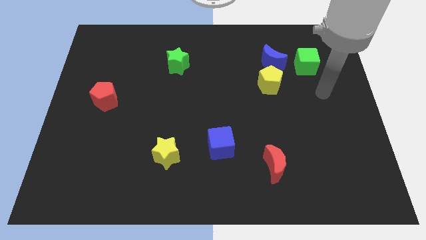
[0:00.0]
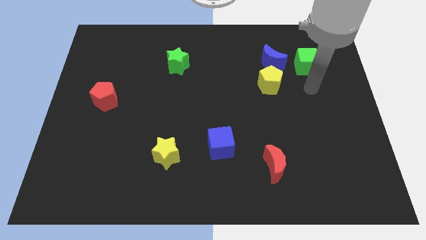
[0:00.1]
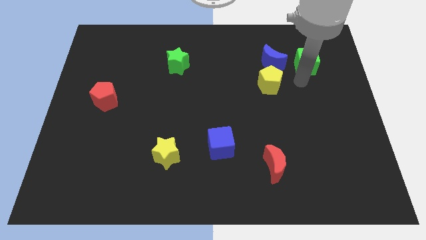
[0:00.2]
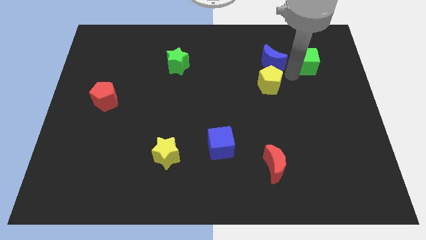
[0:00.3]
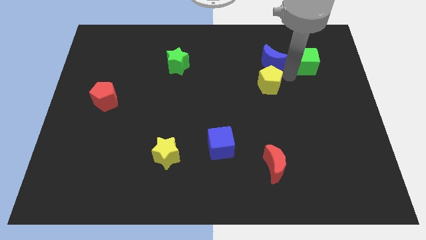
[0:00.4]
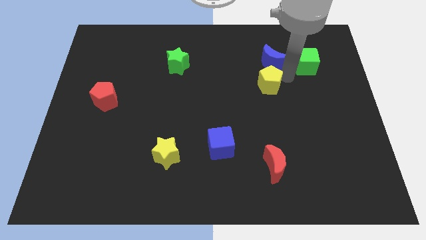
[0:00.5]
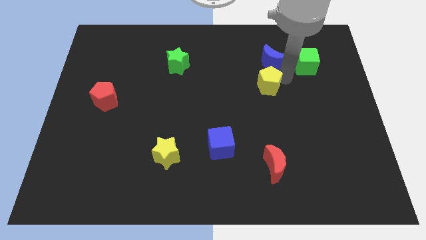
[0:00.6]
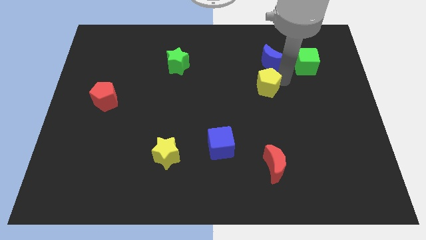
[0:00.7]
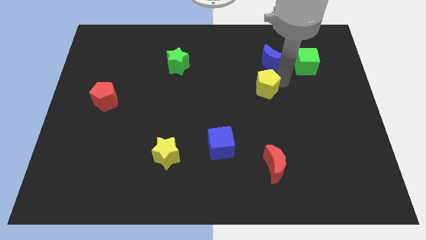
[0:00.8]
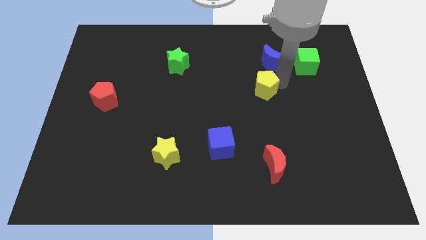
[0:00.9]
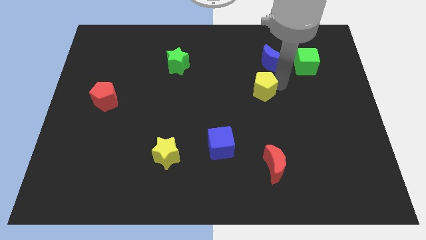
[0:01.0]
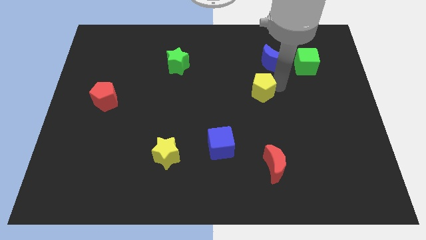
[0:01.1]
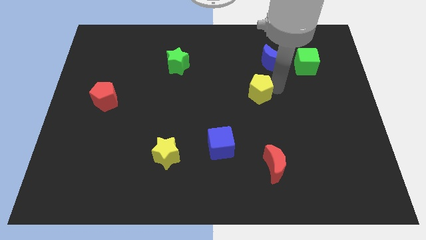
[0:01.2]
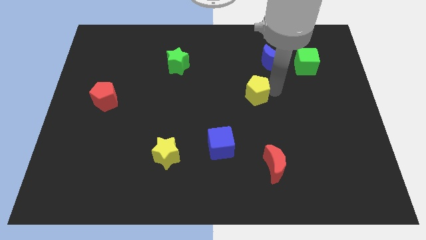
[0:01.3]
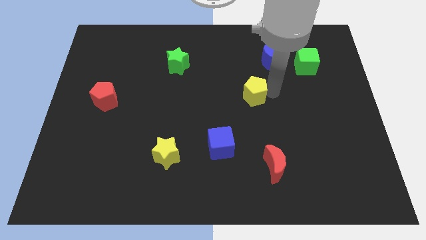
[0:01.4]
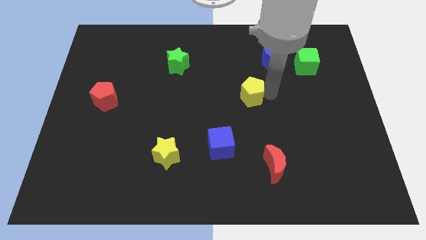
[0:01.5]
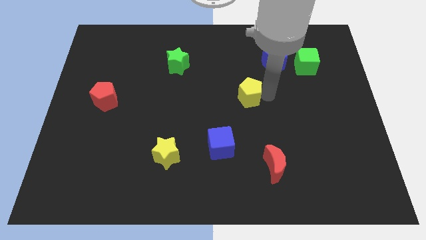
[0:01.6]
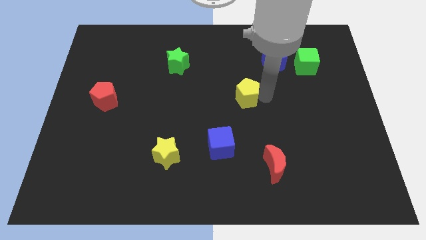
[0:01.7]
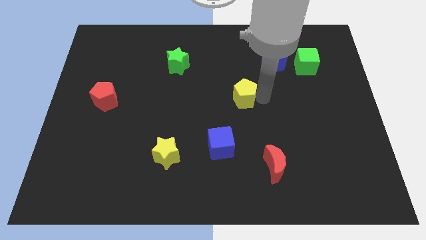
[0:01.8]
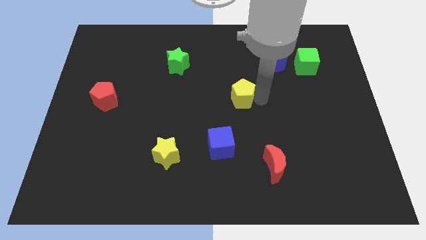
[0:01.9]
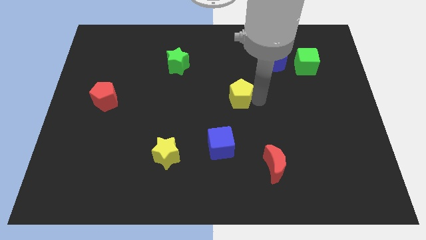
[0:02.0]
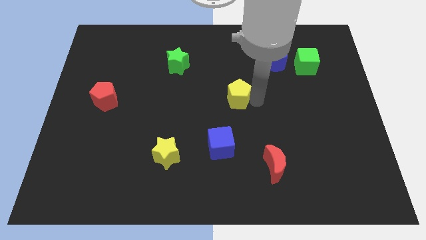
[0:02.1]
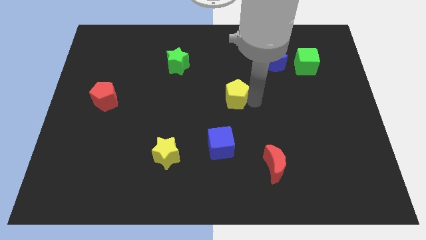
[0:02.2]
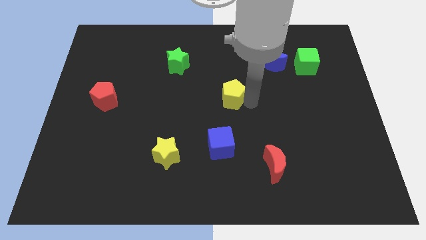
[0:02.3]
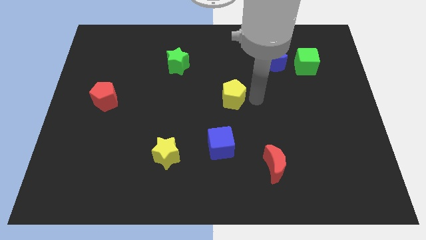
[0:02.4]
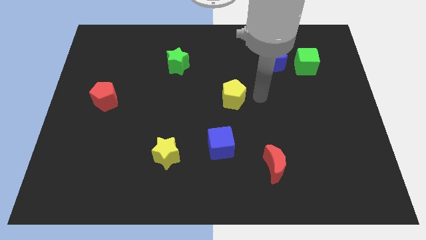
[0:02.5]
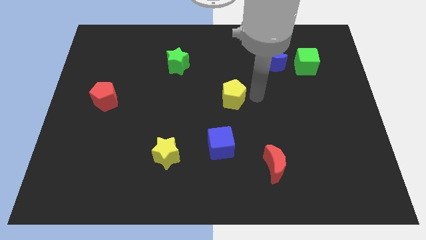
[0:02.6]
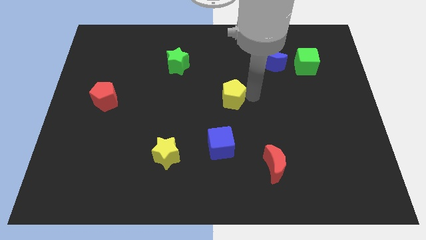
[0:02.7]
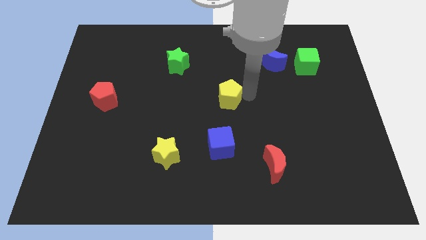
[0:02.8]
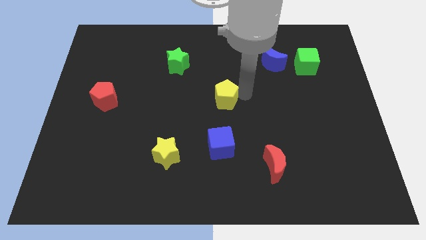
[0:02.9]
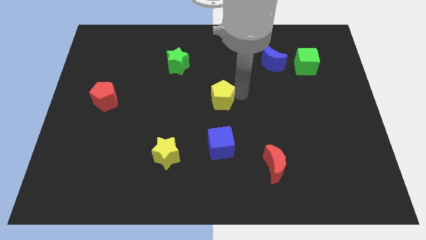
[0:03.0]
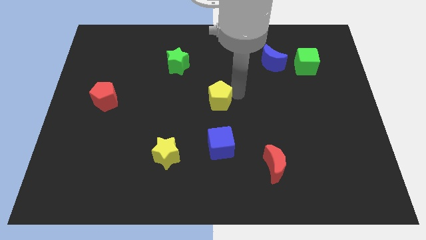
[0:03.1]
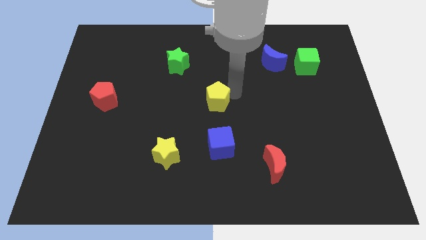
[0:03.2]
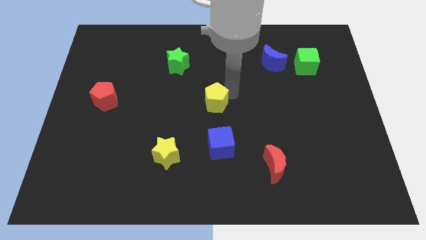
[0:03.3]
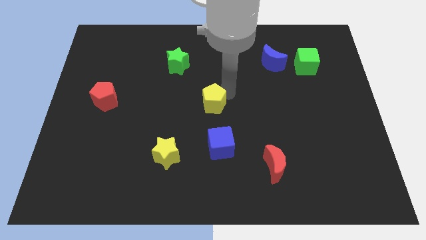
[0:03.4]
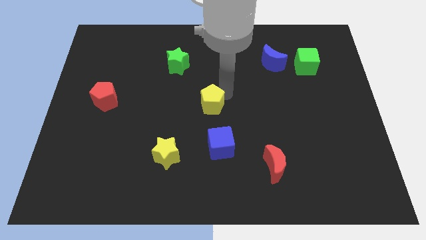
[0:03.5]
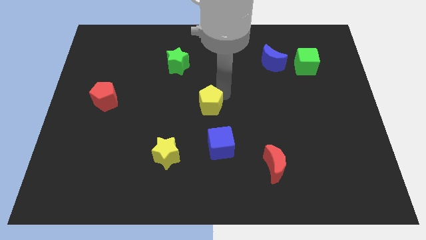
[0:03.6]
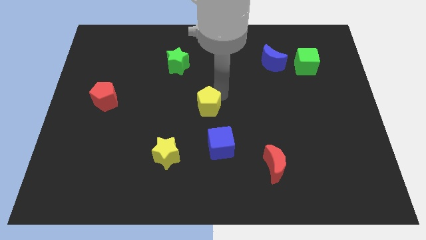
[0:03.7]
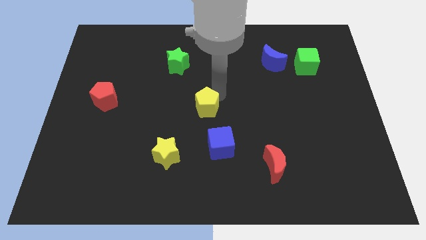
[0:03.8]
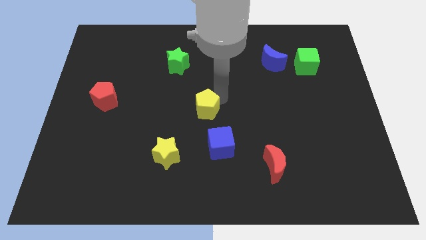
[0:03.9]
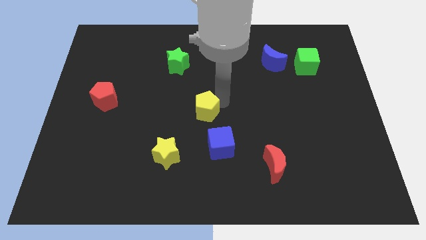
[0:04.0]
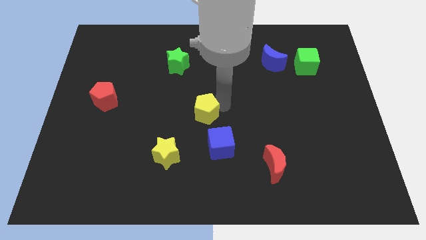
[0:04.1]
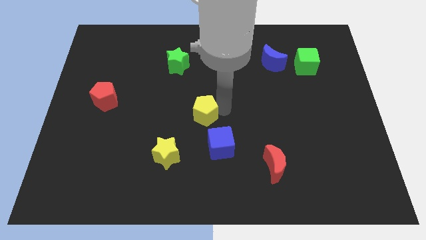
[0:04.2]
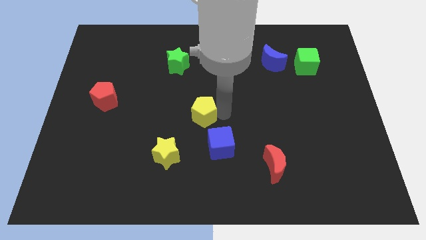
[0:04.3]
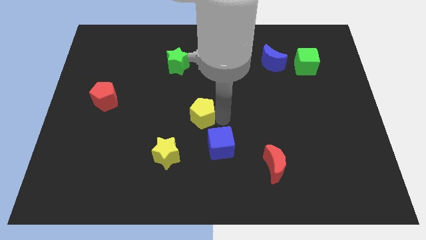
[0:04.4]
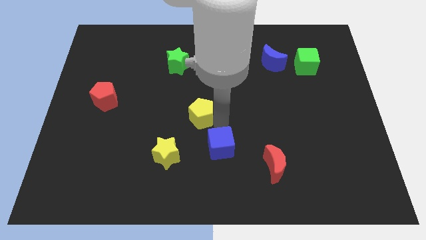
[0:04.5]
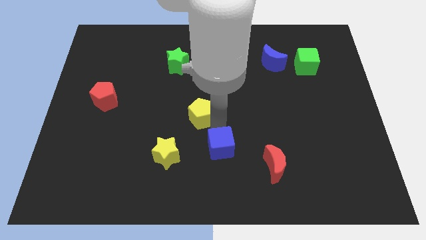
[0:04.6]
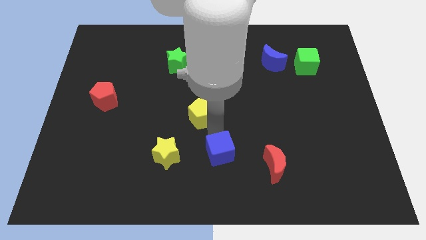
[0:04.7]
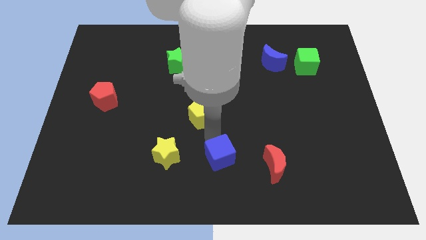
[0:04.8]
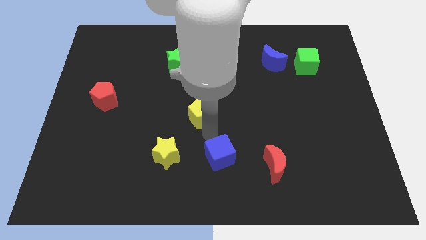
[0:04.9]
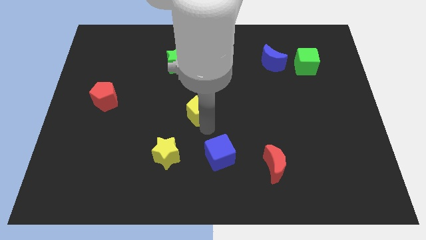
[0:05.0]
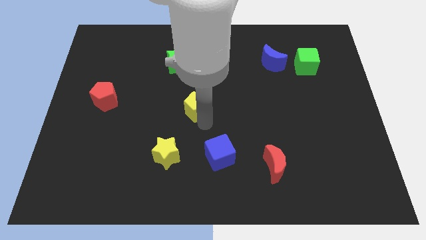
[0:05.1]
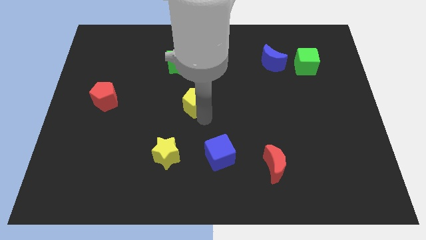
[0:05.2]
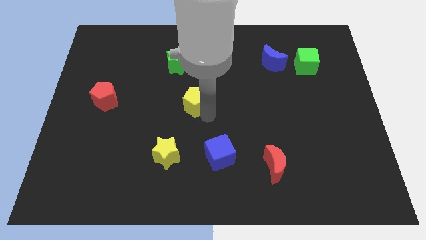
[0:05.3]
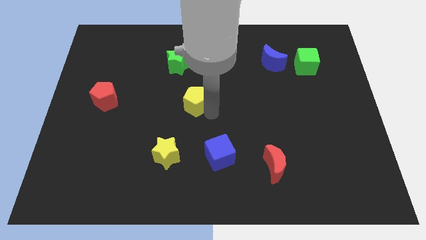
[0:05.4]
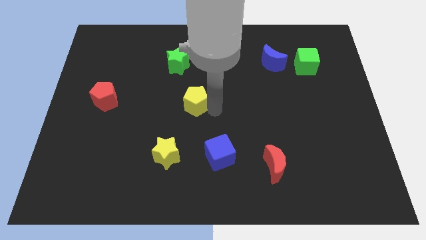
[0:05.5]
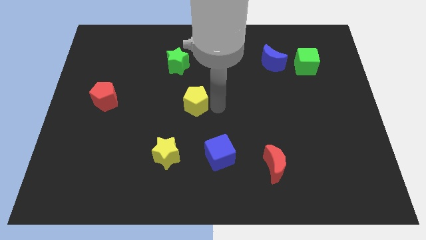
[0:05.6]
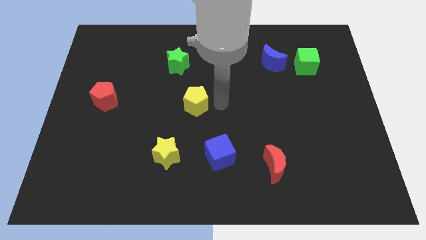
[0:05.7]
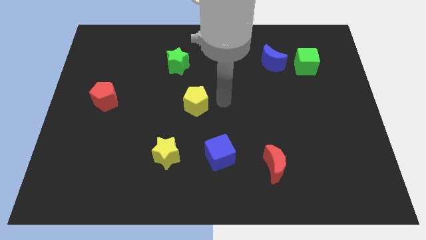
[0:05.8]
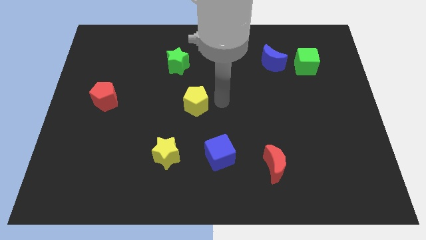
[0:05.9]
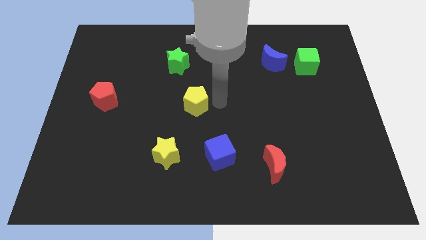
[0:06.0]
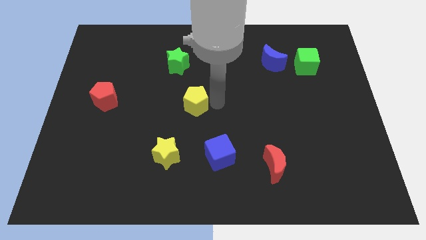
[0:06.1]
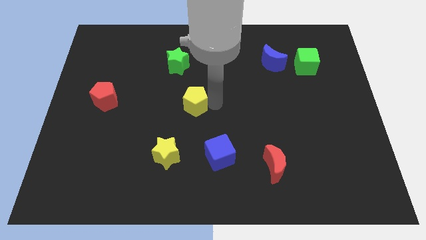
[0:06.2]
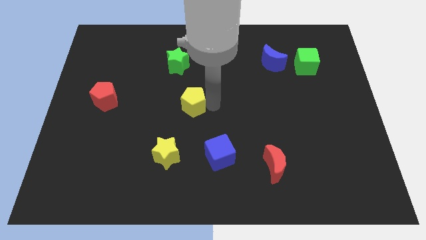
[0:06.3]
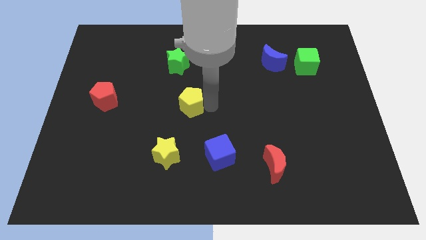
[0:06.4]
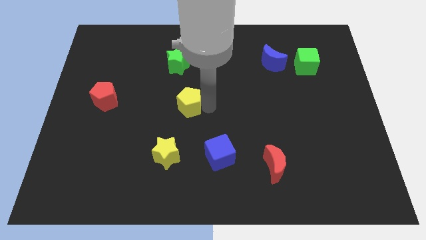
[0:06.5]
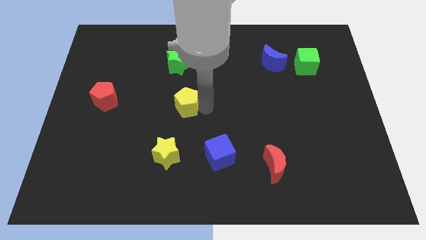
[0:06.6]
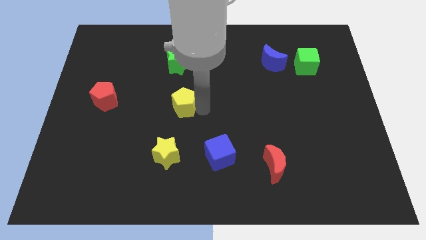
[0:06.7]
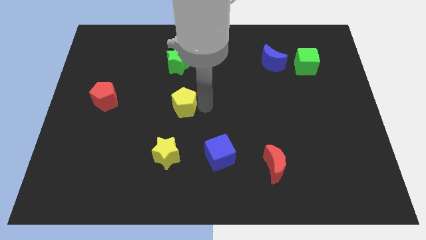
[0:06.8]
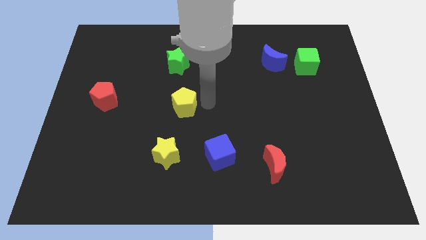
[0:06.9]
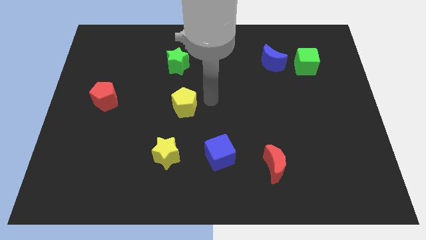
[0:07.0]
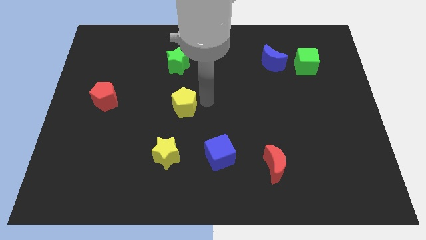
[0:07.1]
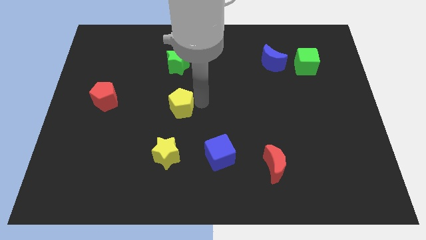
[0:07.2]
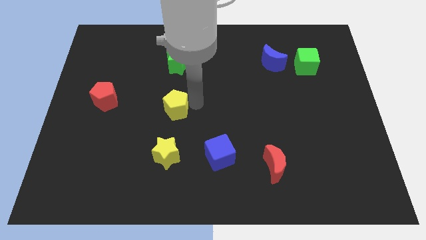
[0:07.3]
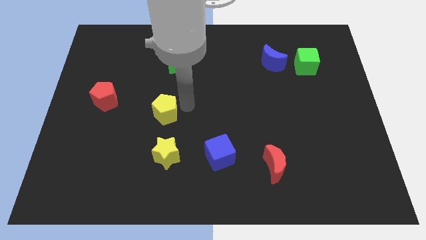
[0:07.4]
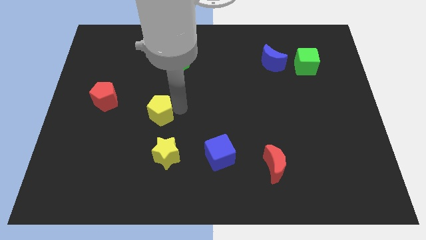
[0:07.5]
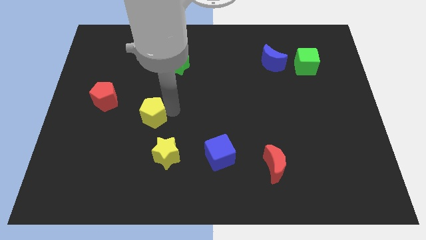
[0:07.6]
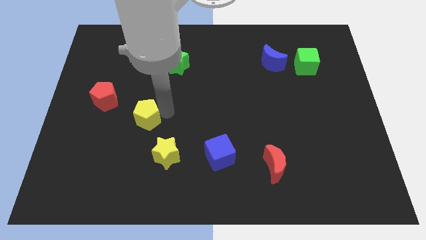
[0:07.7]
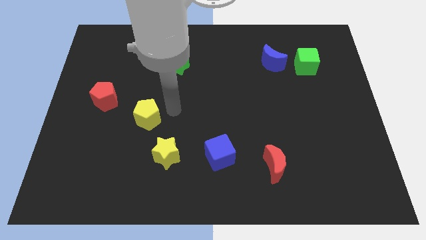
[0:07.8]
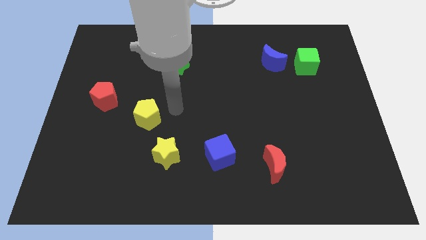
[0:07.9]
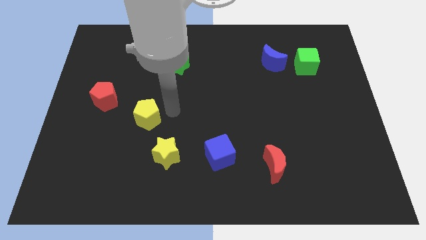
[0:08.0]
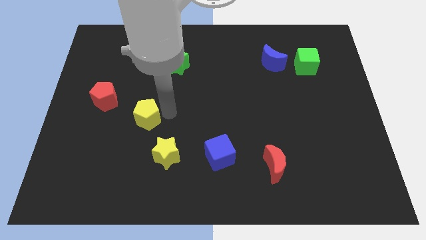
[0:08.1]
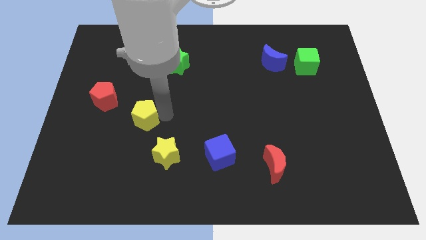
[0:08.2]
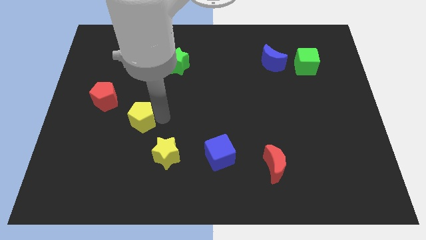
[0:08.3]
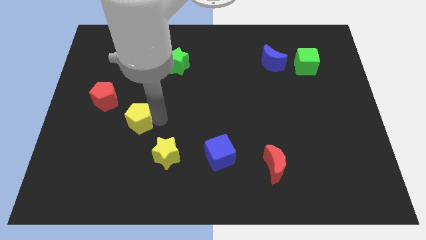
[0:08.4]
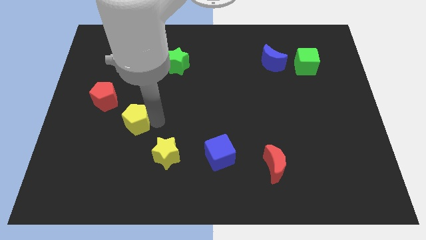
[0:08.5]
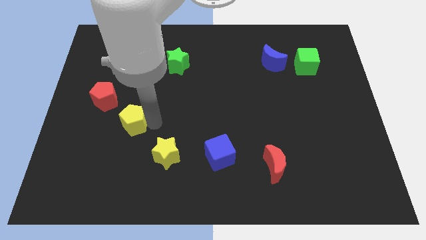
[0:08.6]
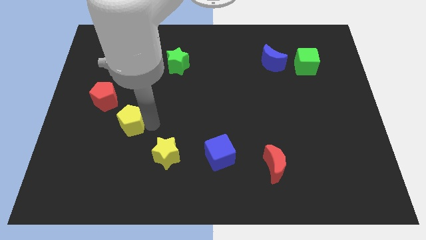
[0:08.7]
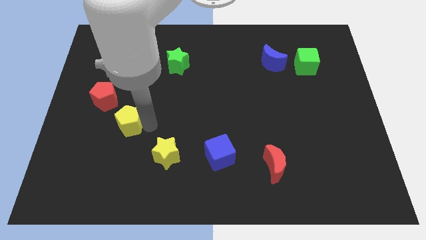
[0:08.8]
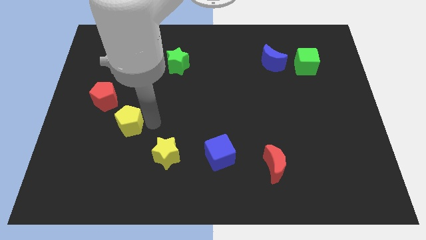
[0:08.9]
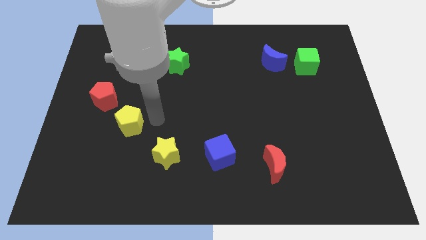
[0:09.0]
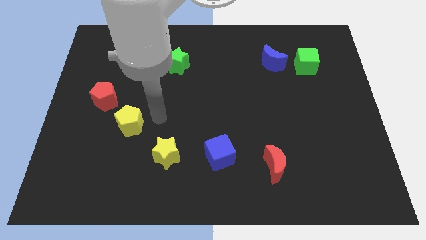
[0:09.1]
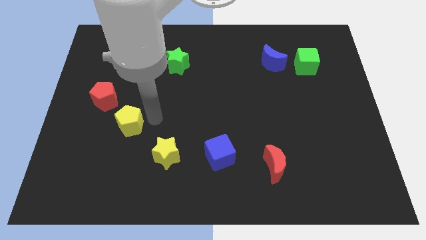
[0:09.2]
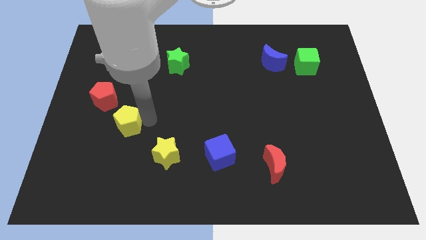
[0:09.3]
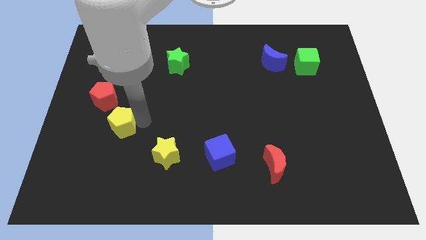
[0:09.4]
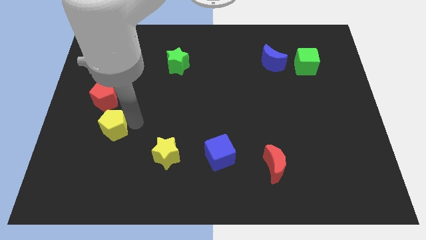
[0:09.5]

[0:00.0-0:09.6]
push the yellow pentagon to the bottom of the red pentagon
